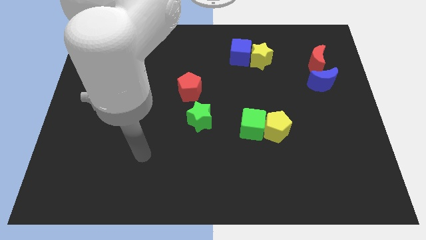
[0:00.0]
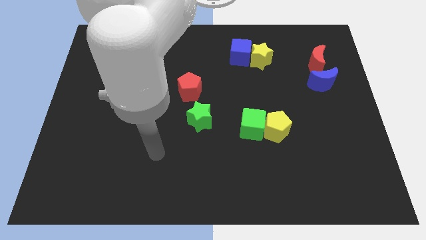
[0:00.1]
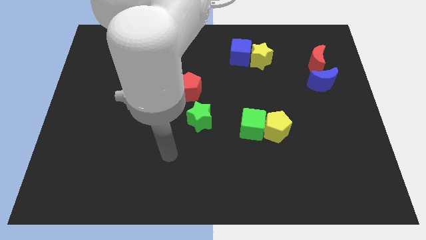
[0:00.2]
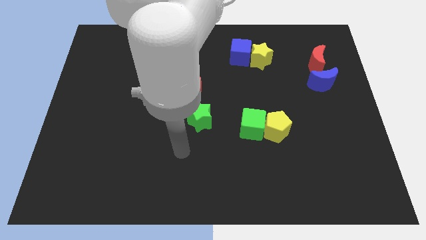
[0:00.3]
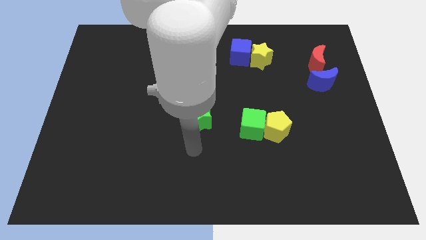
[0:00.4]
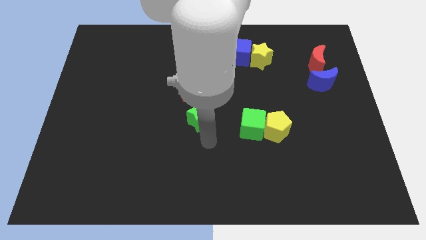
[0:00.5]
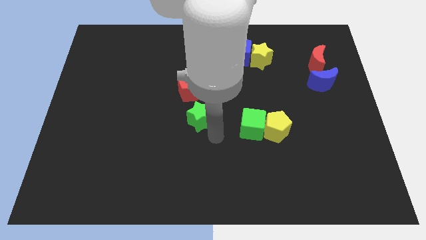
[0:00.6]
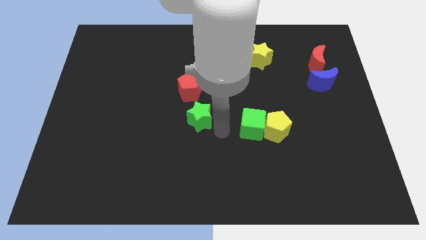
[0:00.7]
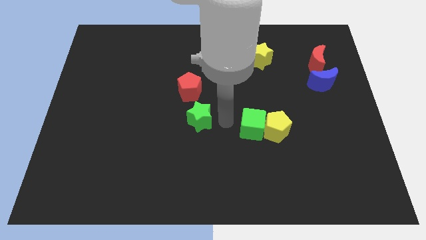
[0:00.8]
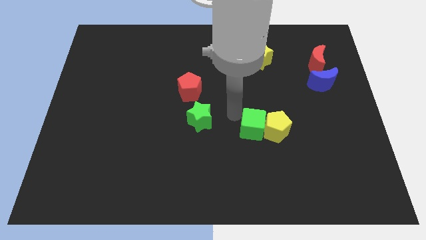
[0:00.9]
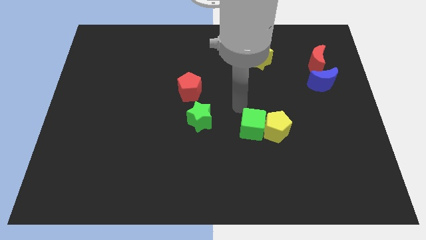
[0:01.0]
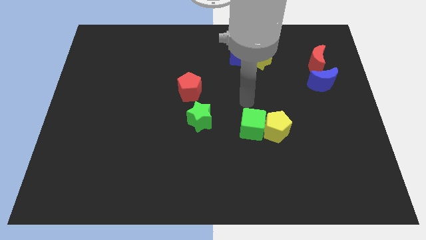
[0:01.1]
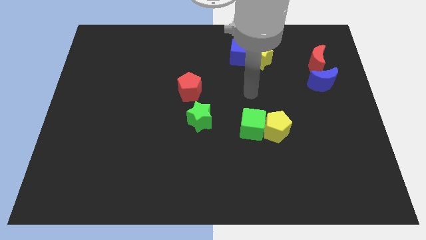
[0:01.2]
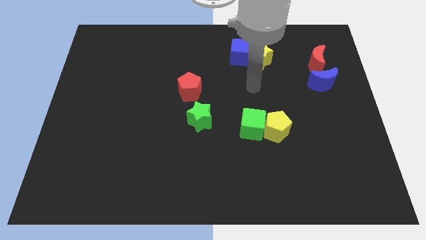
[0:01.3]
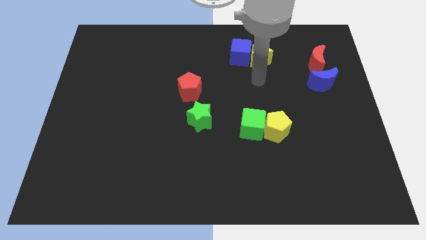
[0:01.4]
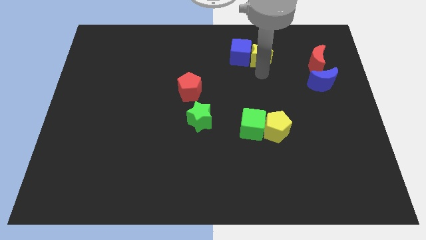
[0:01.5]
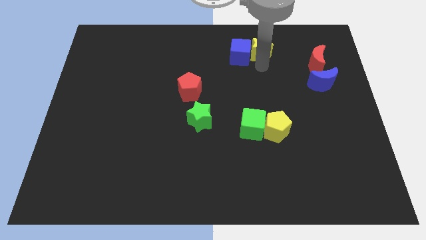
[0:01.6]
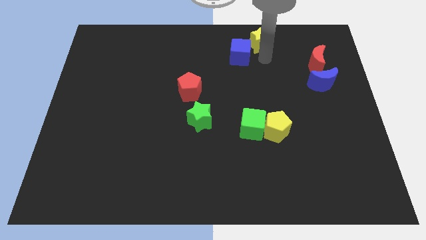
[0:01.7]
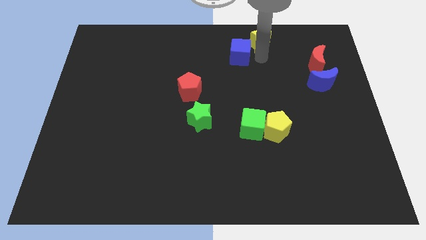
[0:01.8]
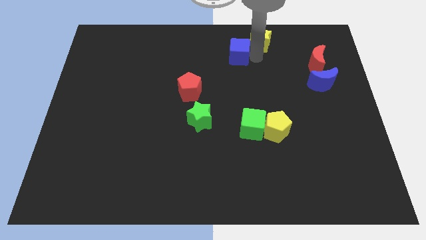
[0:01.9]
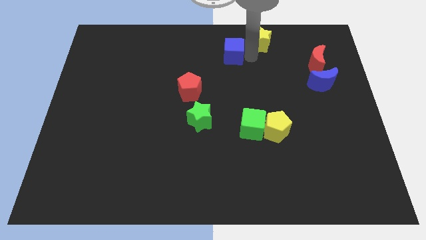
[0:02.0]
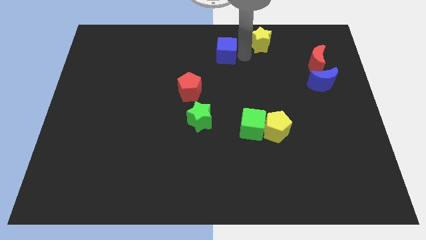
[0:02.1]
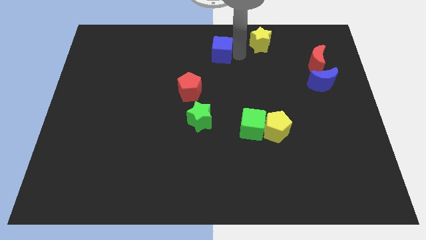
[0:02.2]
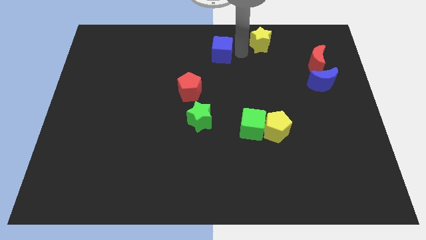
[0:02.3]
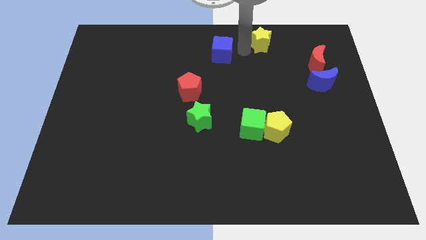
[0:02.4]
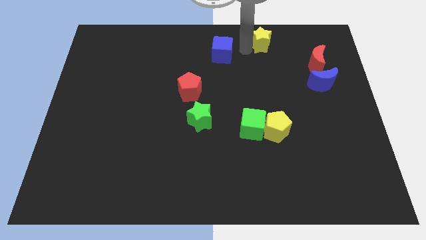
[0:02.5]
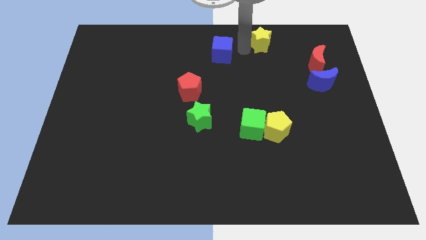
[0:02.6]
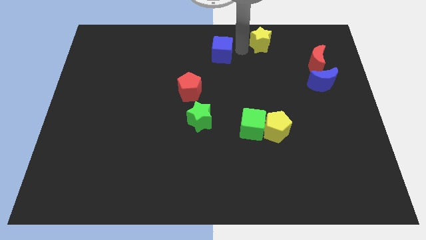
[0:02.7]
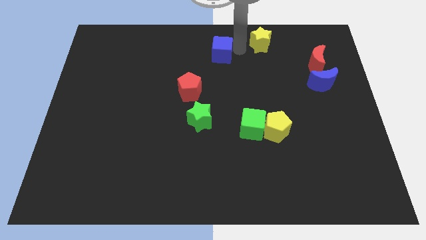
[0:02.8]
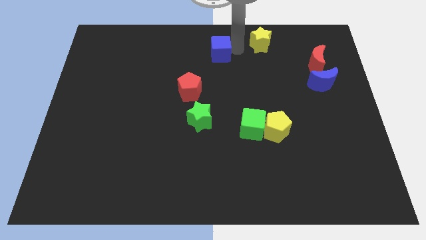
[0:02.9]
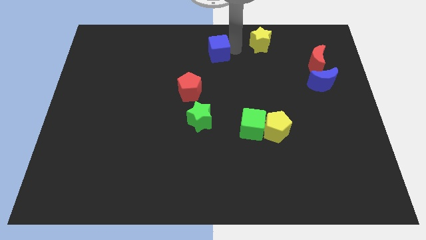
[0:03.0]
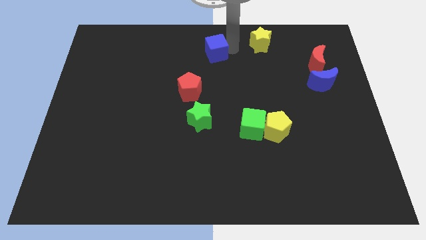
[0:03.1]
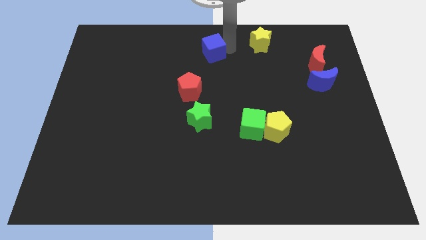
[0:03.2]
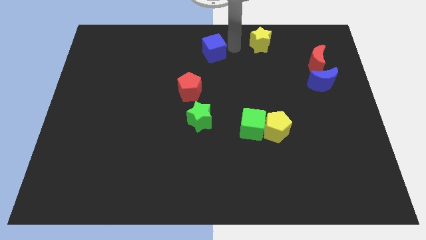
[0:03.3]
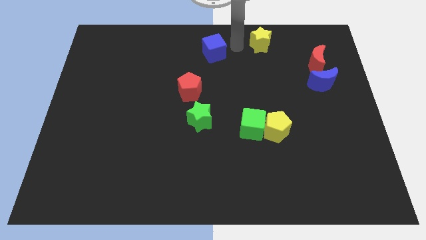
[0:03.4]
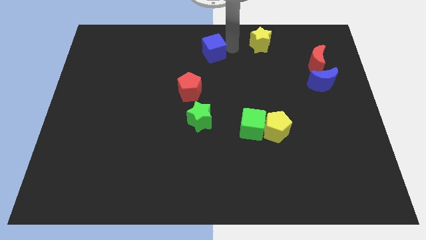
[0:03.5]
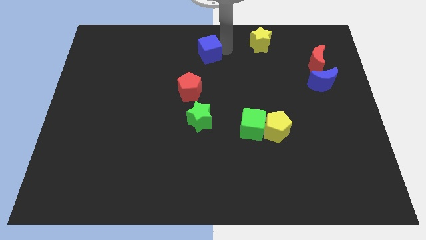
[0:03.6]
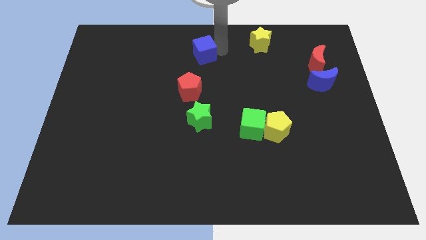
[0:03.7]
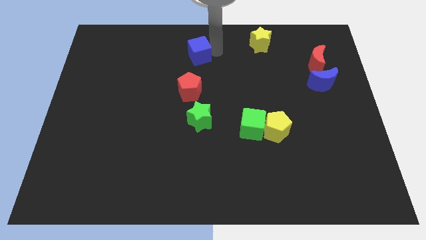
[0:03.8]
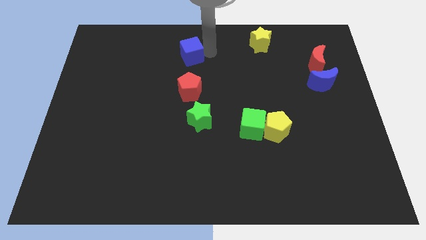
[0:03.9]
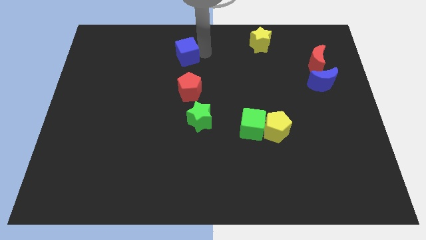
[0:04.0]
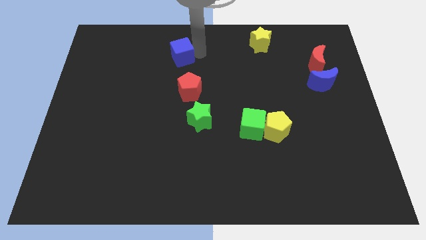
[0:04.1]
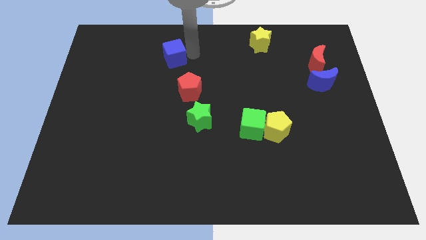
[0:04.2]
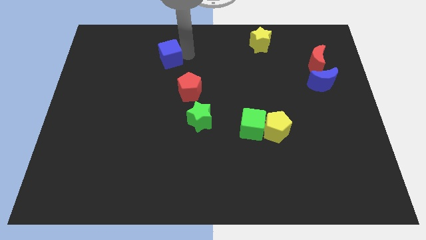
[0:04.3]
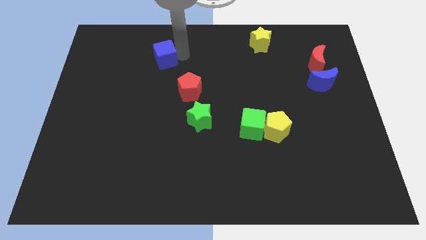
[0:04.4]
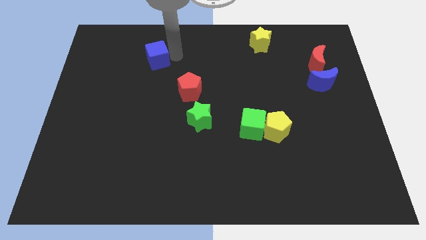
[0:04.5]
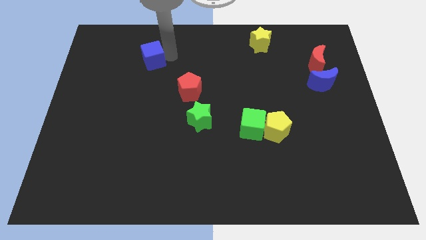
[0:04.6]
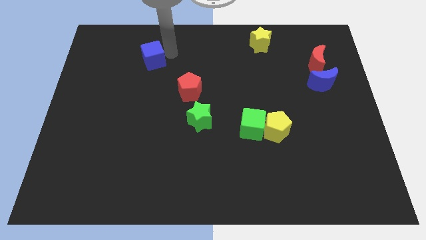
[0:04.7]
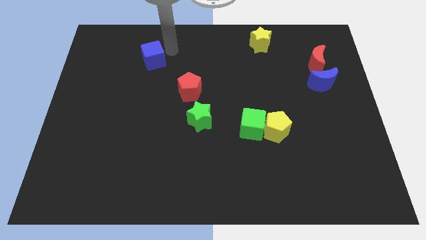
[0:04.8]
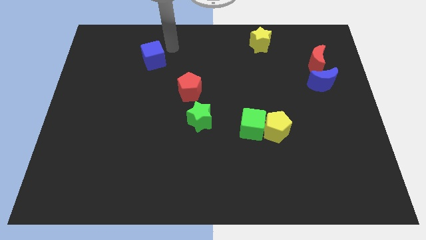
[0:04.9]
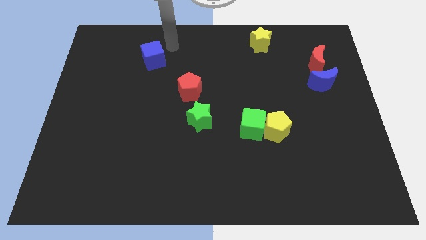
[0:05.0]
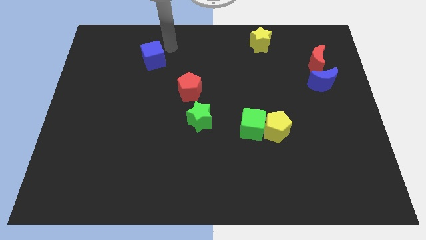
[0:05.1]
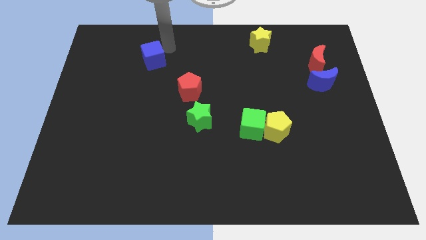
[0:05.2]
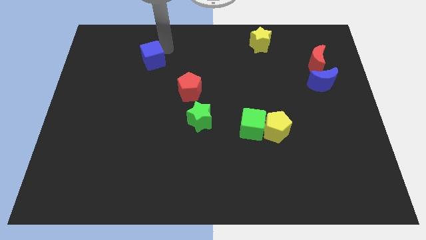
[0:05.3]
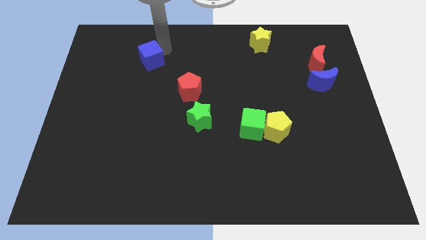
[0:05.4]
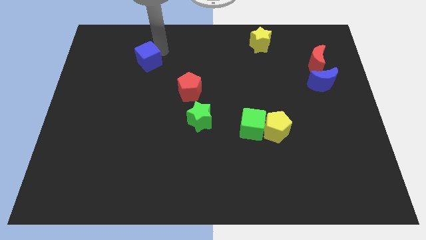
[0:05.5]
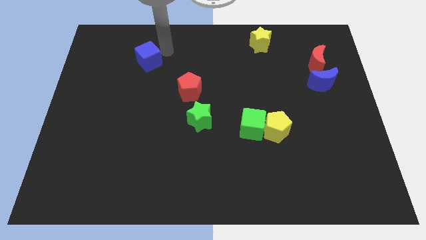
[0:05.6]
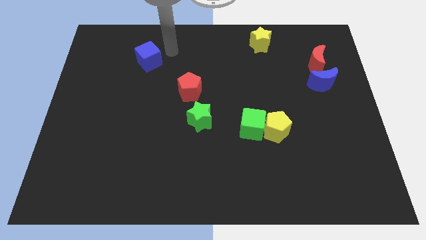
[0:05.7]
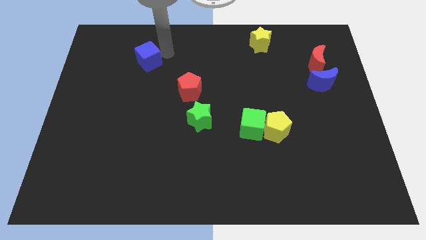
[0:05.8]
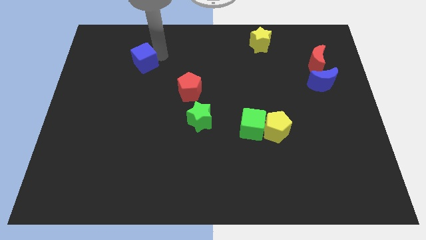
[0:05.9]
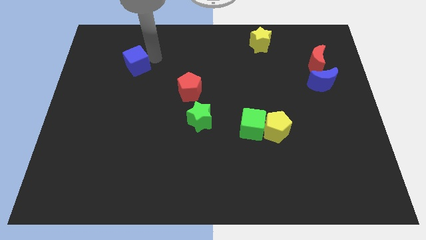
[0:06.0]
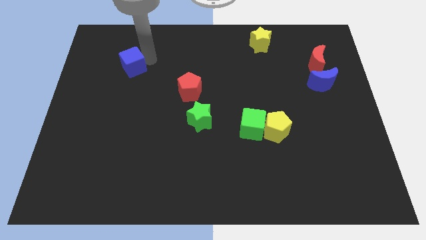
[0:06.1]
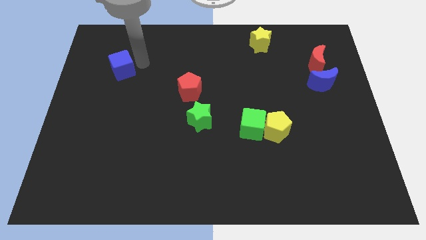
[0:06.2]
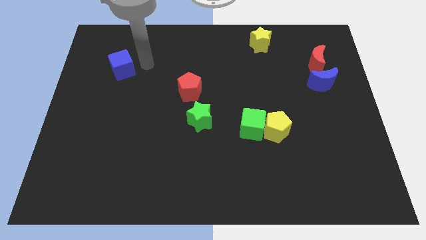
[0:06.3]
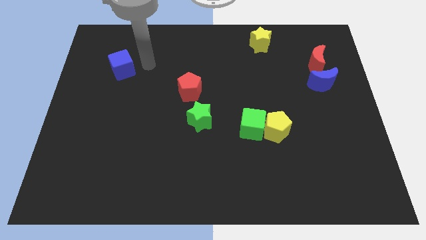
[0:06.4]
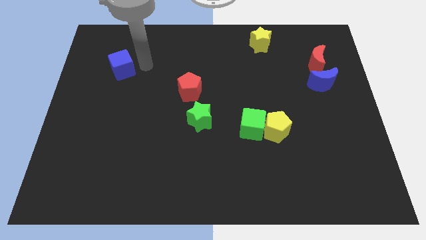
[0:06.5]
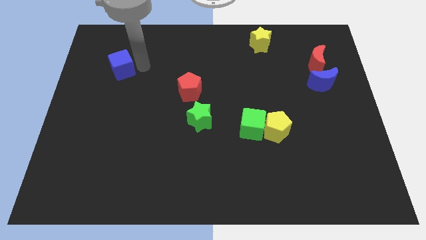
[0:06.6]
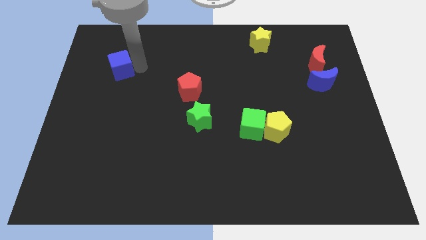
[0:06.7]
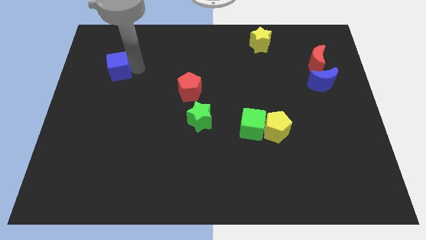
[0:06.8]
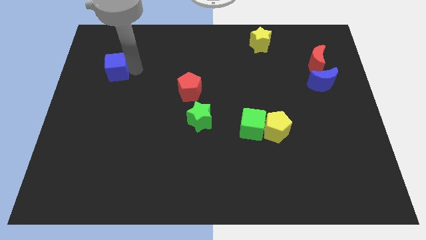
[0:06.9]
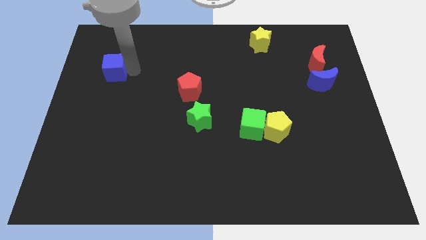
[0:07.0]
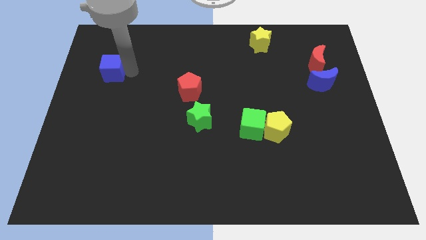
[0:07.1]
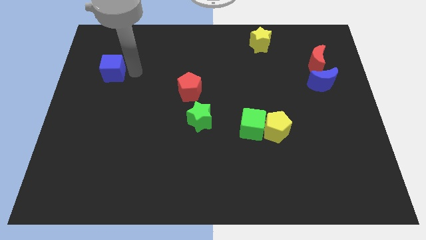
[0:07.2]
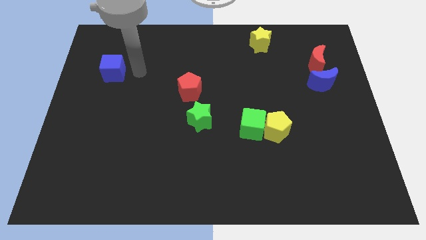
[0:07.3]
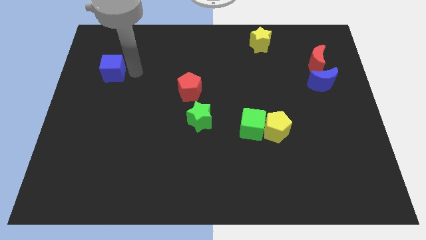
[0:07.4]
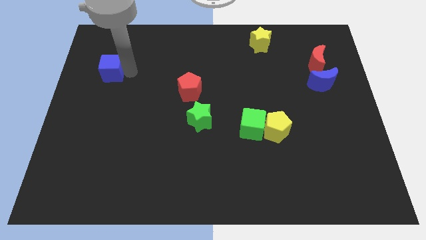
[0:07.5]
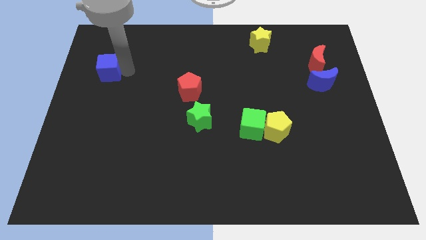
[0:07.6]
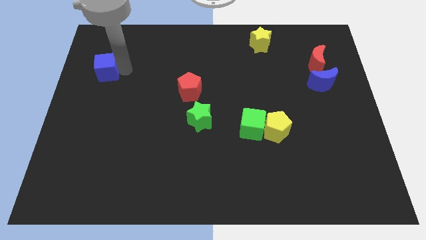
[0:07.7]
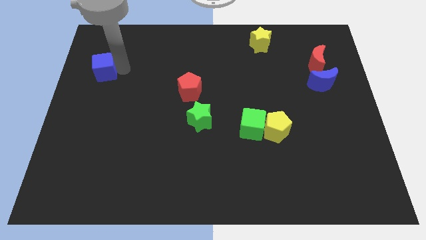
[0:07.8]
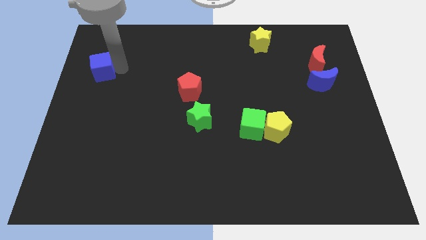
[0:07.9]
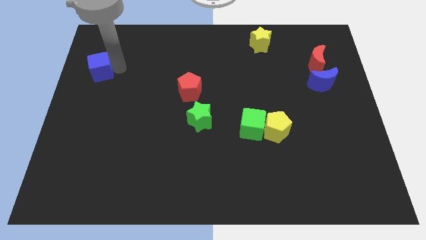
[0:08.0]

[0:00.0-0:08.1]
slide the blue cube to the center left
